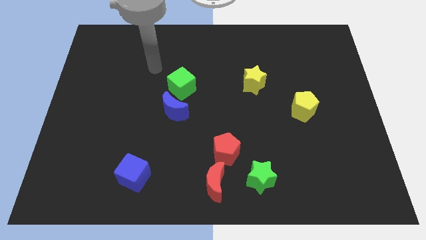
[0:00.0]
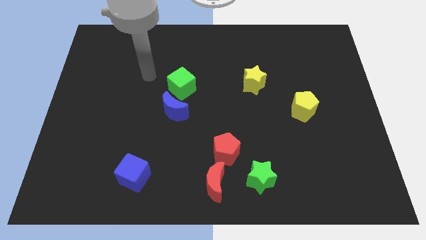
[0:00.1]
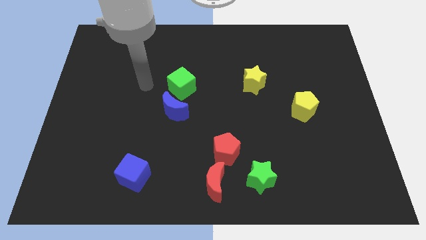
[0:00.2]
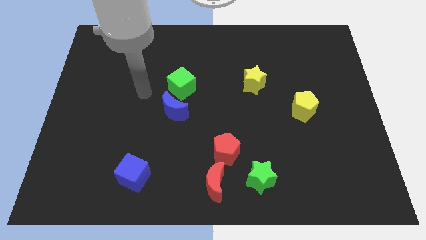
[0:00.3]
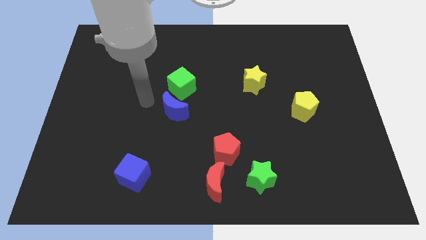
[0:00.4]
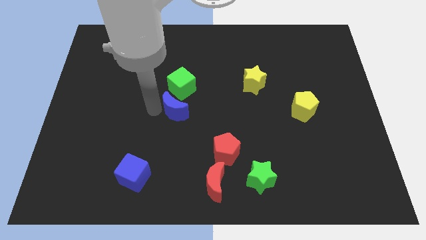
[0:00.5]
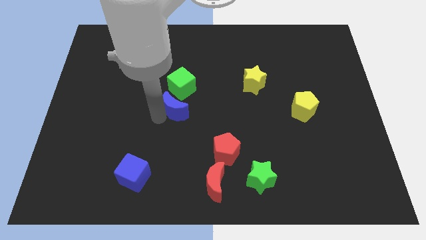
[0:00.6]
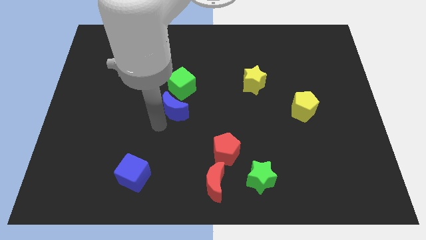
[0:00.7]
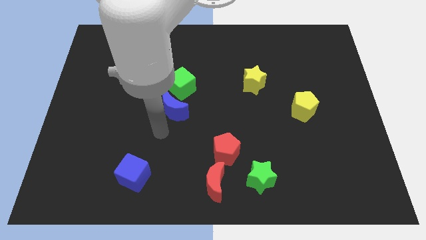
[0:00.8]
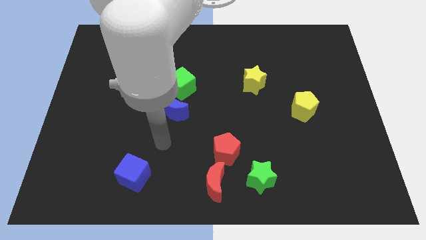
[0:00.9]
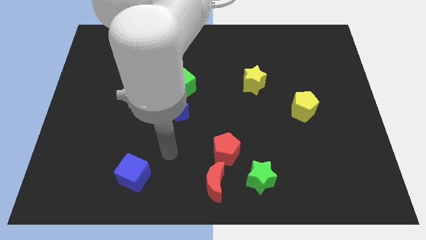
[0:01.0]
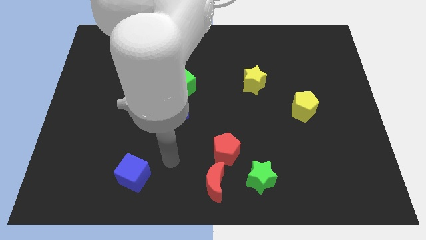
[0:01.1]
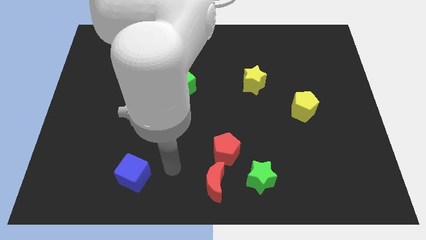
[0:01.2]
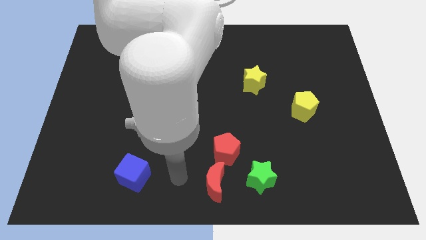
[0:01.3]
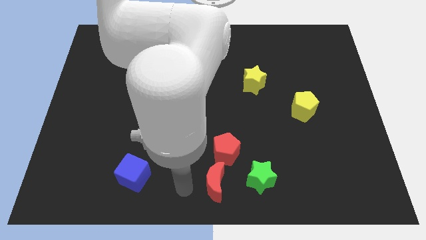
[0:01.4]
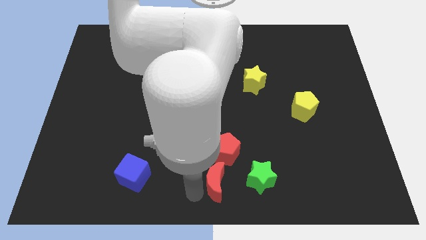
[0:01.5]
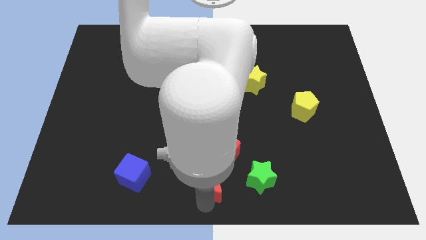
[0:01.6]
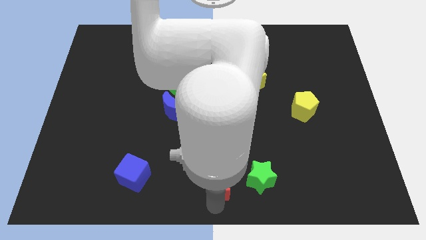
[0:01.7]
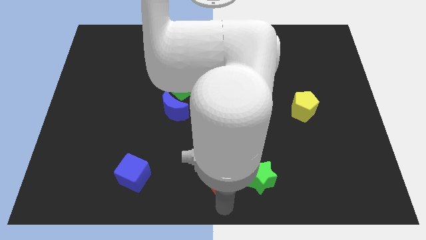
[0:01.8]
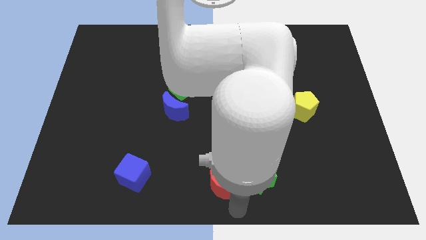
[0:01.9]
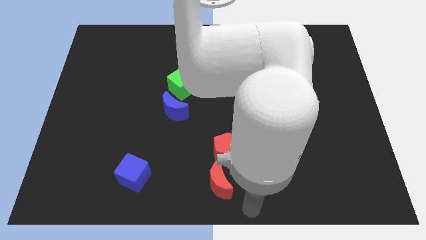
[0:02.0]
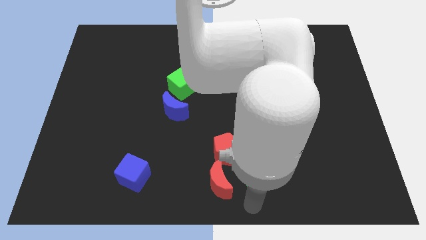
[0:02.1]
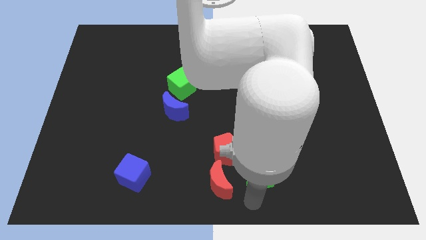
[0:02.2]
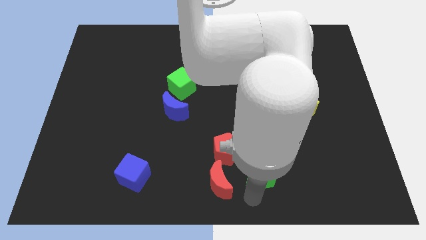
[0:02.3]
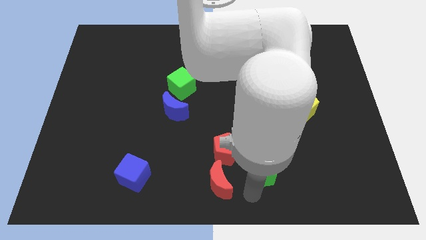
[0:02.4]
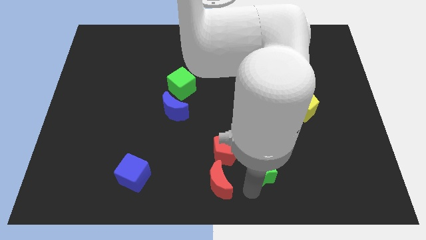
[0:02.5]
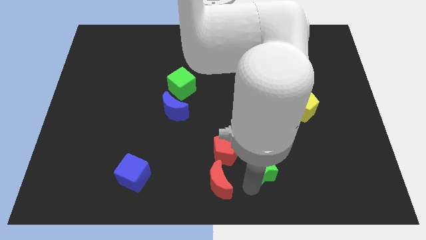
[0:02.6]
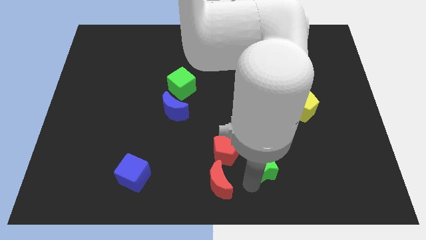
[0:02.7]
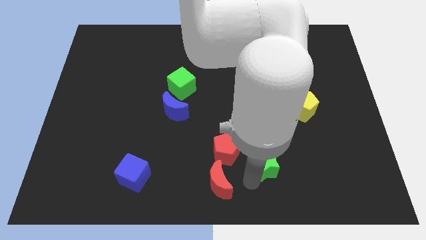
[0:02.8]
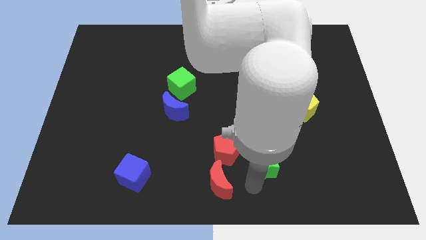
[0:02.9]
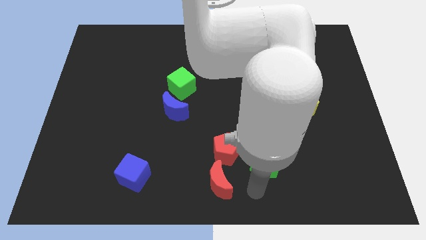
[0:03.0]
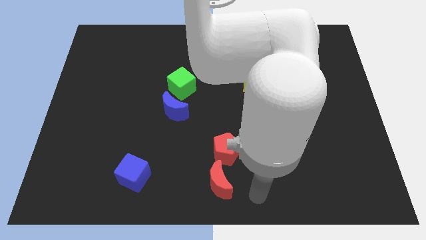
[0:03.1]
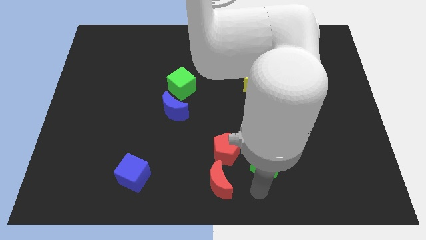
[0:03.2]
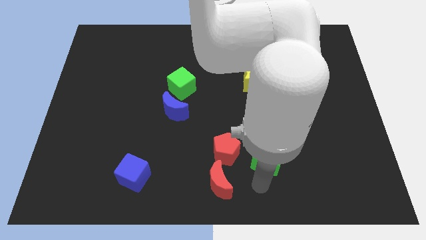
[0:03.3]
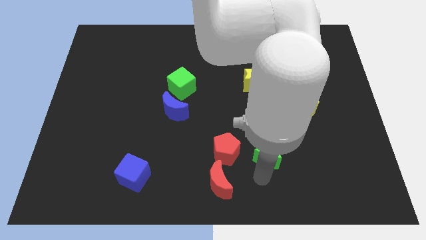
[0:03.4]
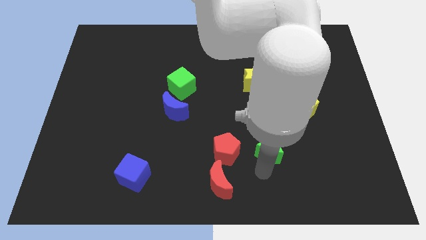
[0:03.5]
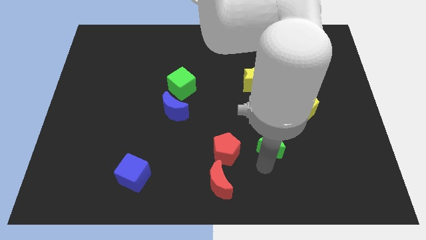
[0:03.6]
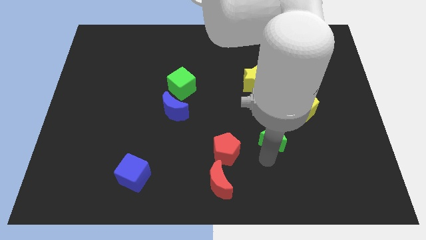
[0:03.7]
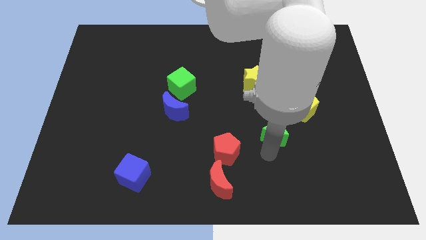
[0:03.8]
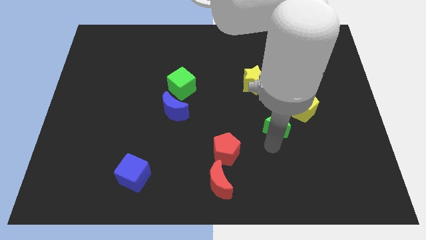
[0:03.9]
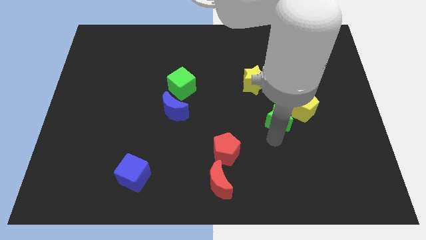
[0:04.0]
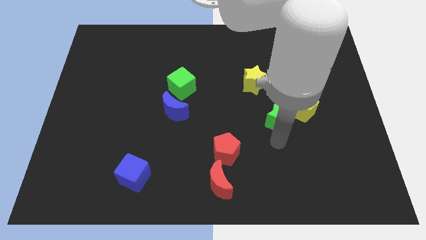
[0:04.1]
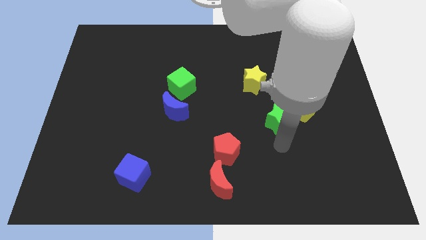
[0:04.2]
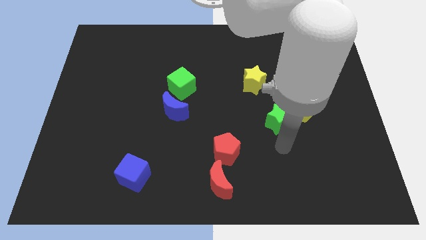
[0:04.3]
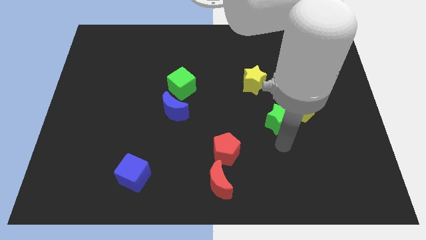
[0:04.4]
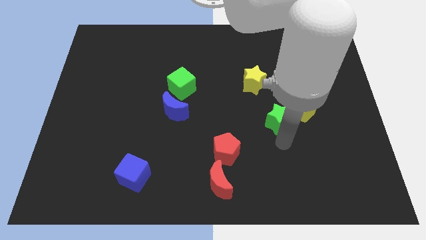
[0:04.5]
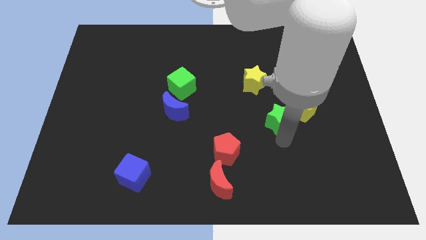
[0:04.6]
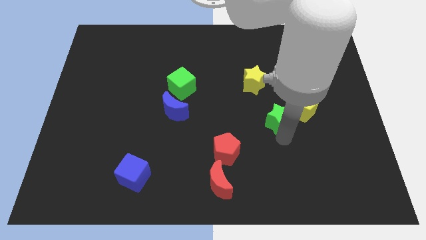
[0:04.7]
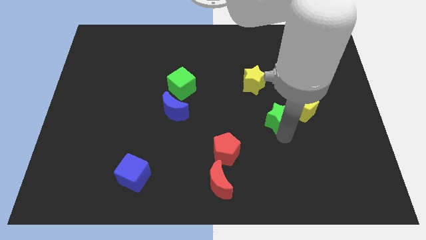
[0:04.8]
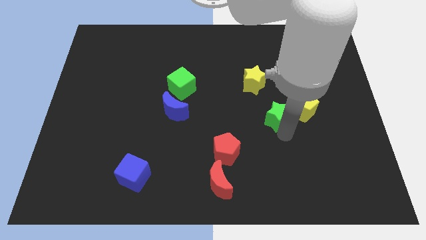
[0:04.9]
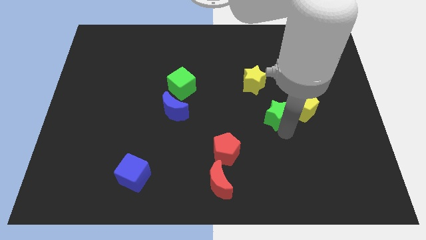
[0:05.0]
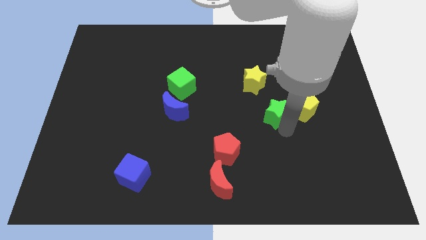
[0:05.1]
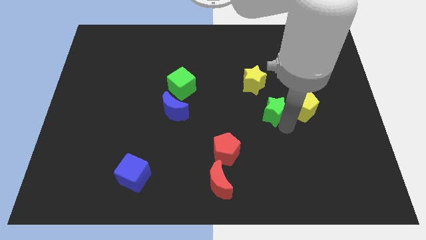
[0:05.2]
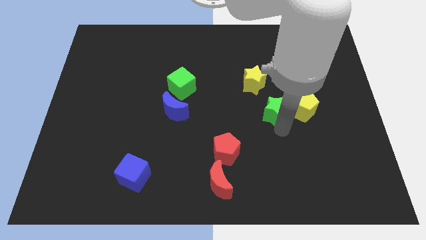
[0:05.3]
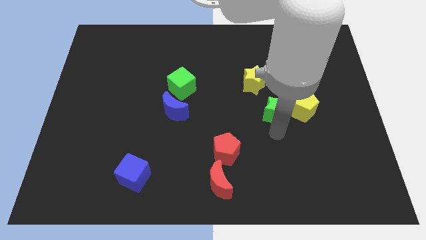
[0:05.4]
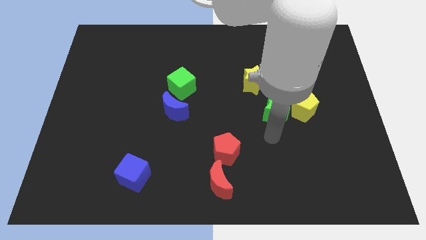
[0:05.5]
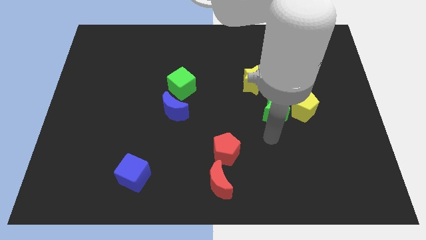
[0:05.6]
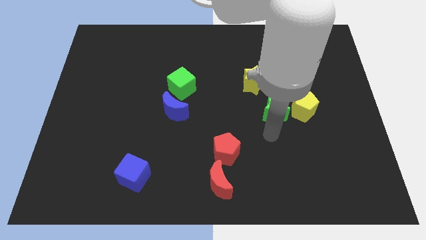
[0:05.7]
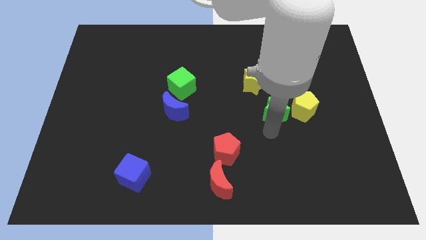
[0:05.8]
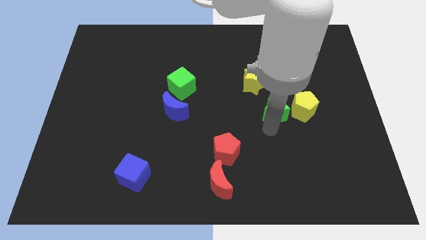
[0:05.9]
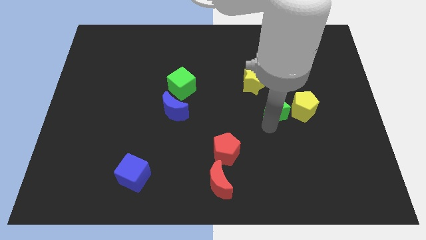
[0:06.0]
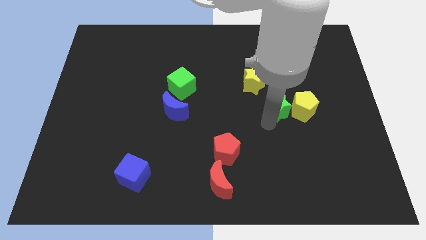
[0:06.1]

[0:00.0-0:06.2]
put the green star to the top left of the yellow pentagon

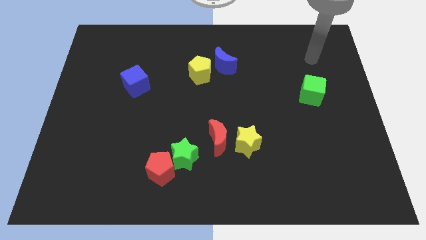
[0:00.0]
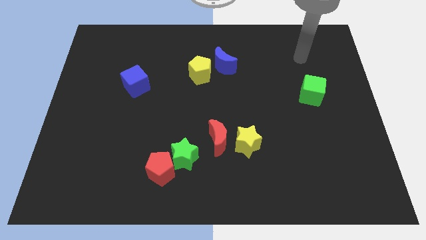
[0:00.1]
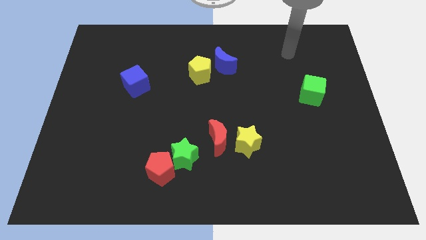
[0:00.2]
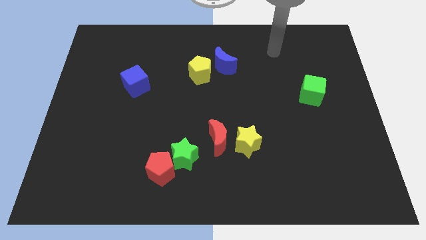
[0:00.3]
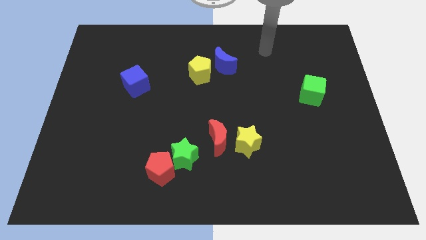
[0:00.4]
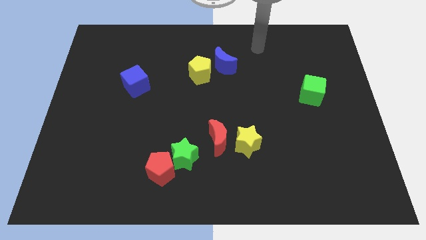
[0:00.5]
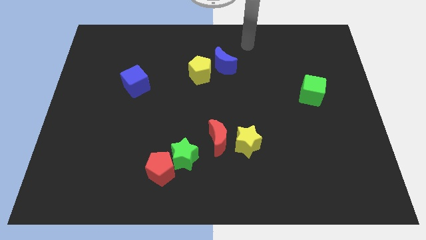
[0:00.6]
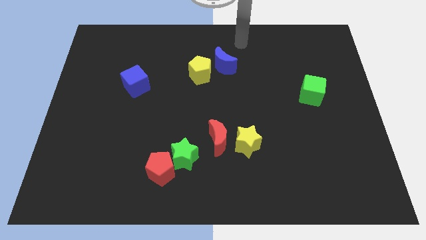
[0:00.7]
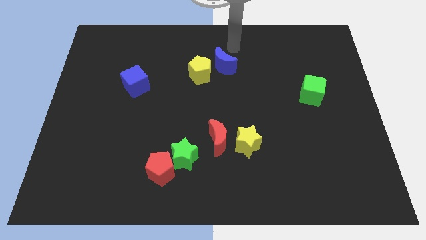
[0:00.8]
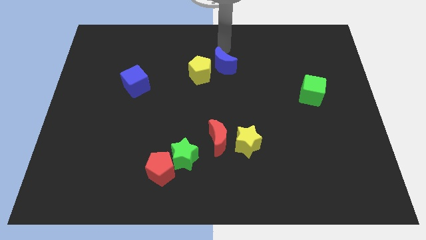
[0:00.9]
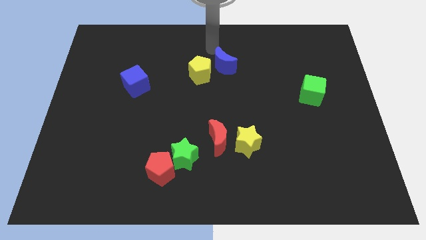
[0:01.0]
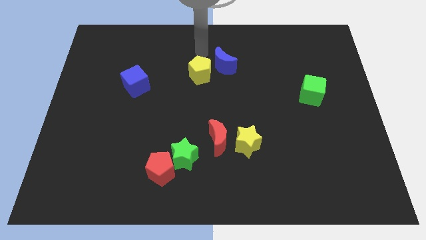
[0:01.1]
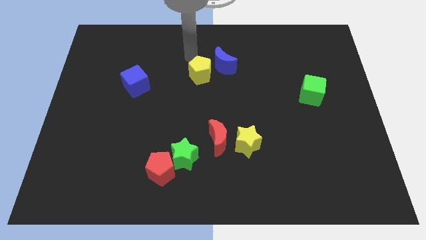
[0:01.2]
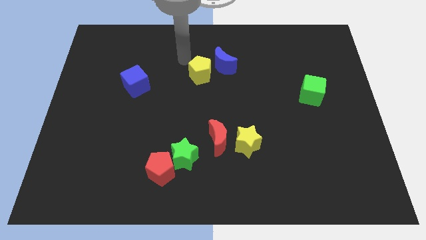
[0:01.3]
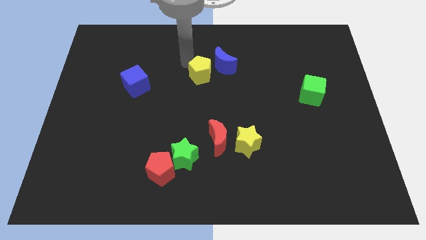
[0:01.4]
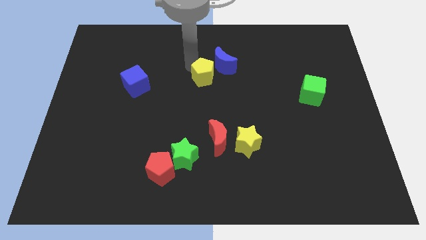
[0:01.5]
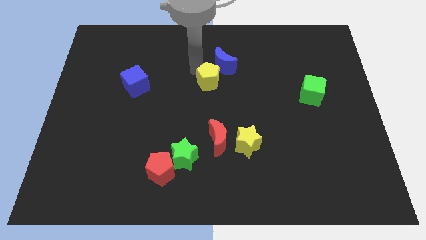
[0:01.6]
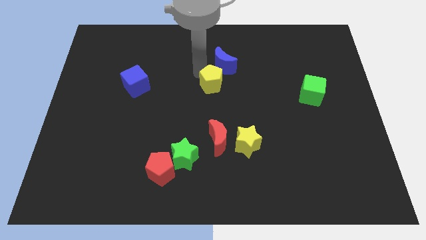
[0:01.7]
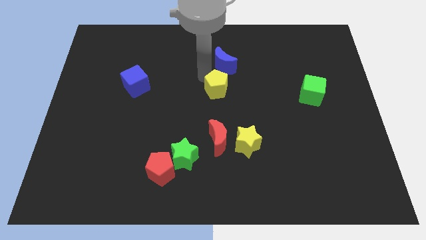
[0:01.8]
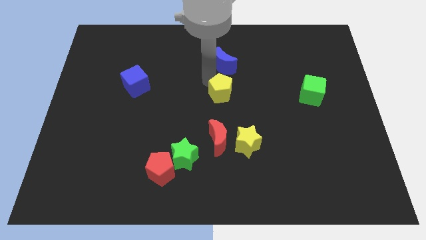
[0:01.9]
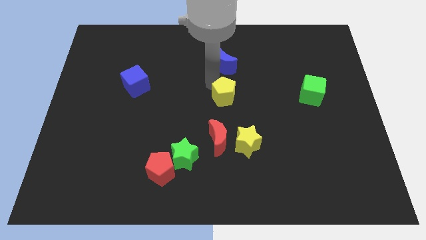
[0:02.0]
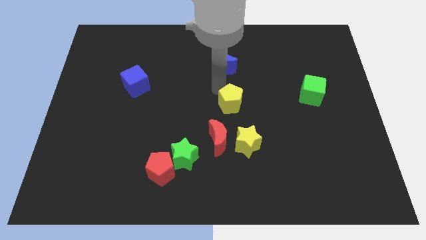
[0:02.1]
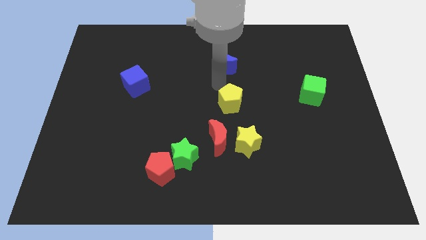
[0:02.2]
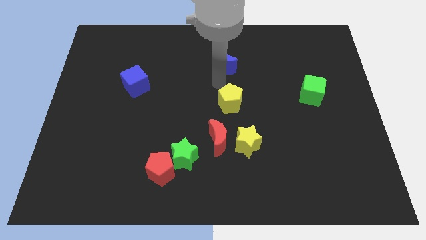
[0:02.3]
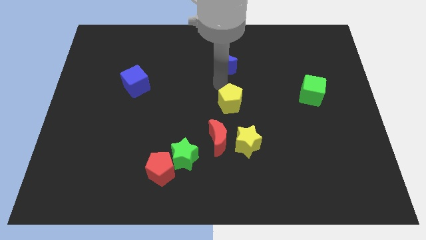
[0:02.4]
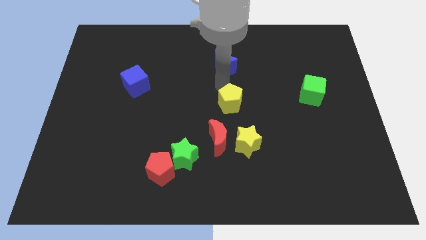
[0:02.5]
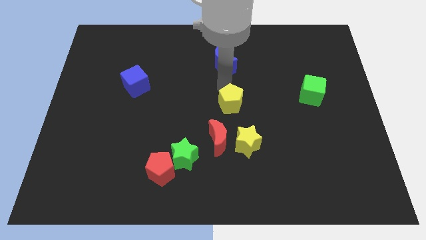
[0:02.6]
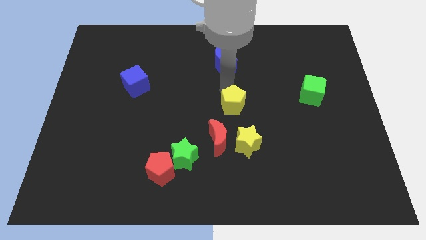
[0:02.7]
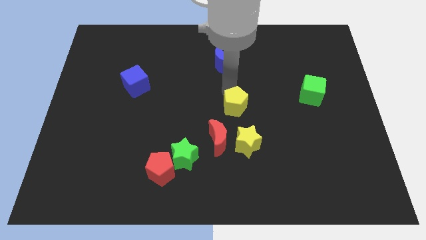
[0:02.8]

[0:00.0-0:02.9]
push the yellow pentagon to the top right side of the red moon
